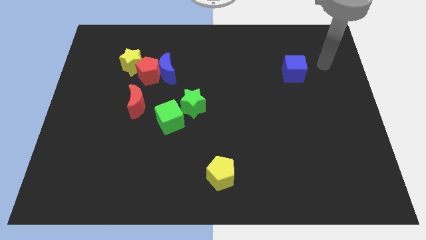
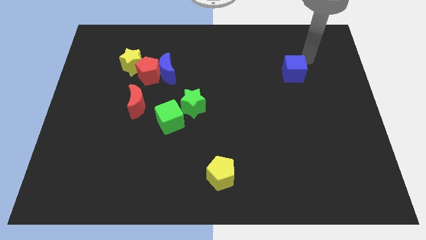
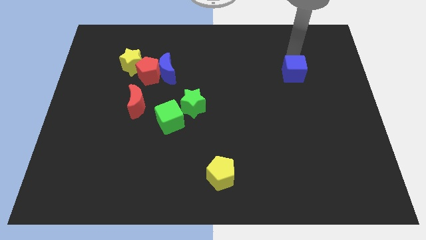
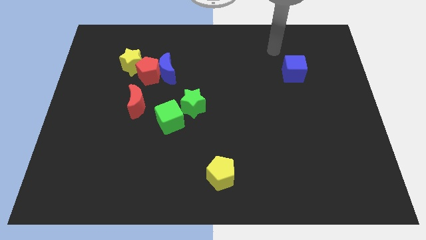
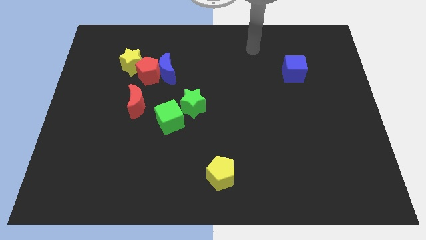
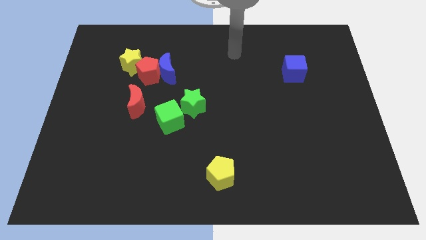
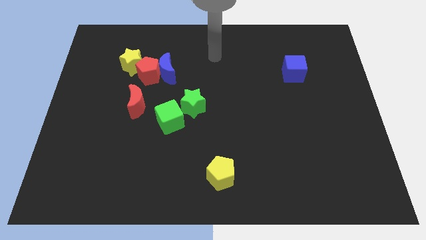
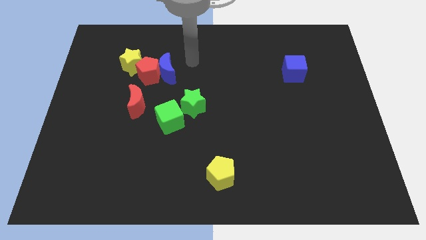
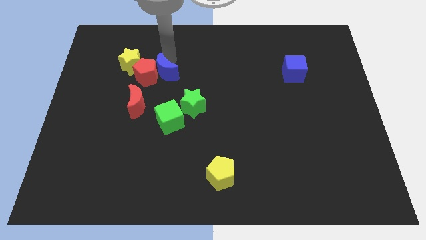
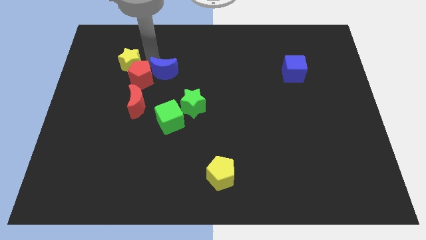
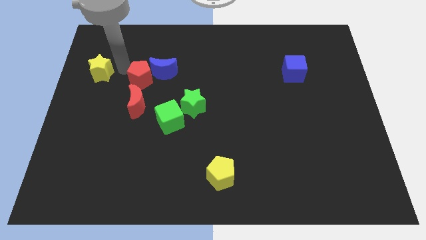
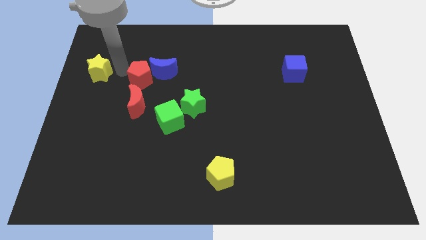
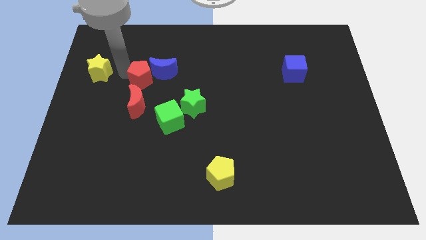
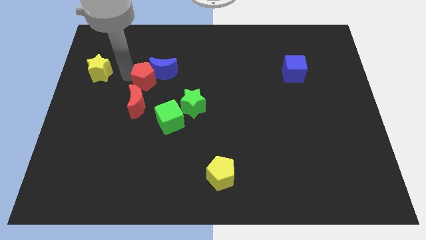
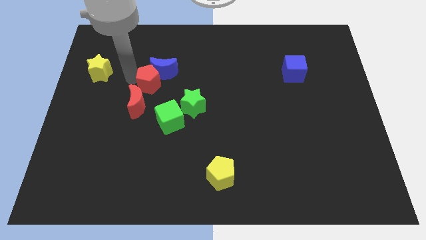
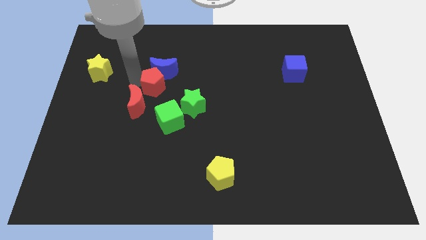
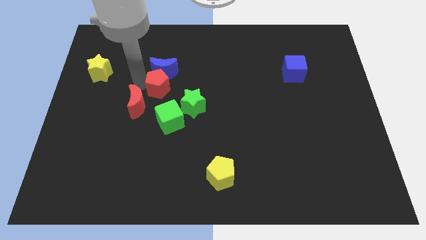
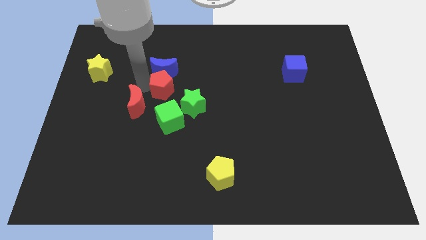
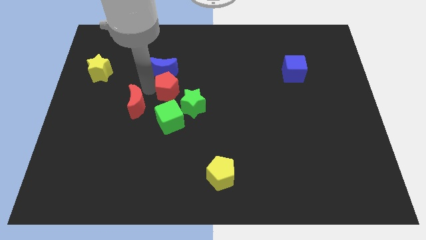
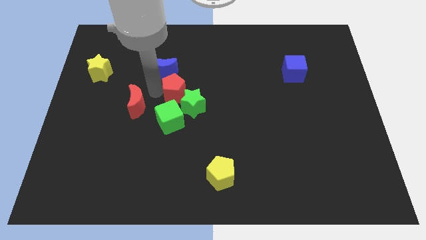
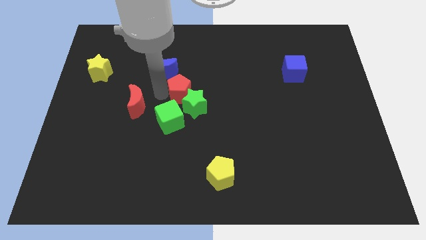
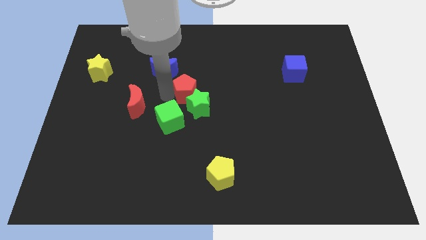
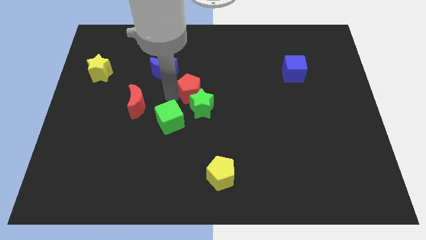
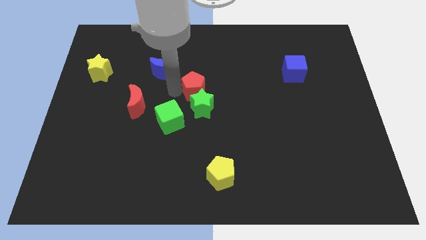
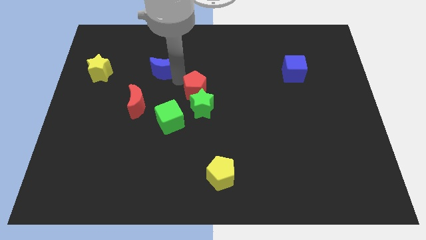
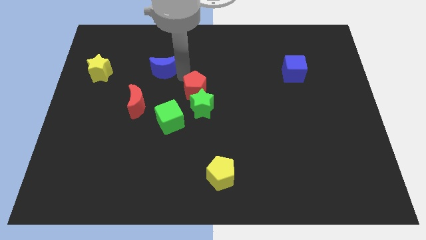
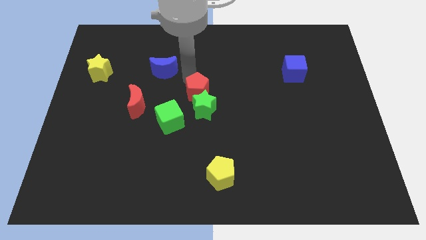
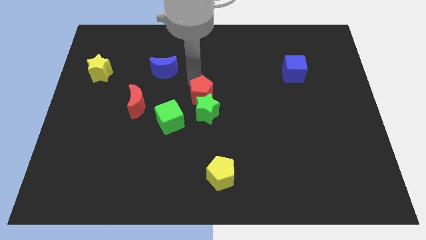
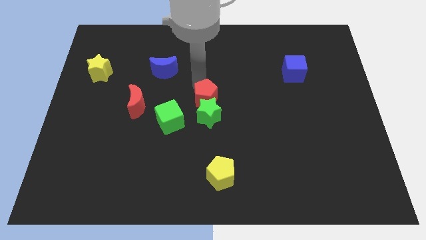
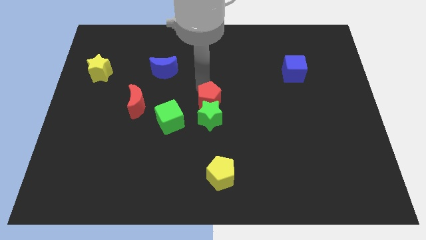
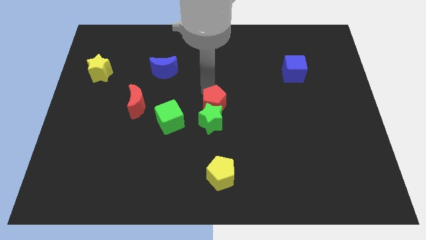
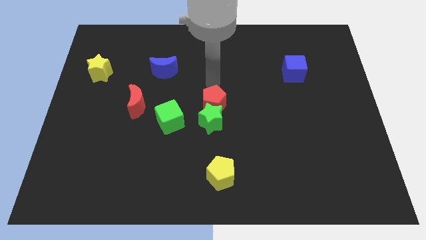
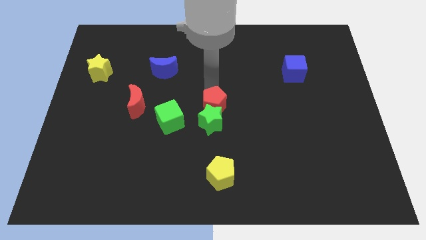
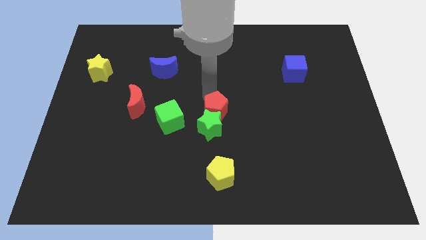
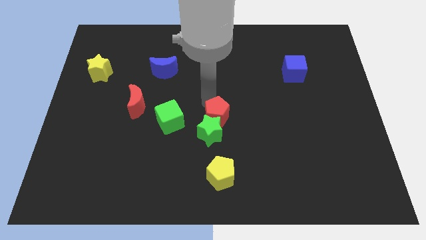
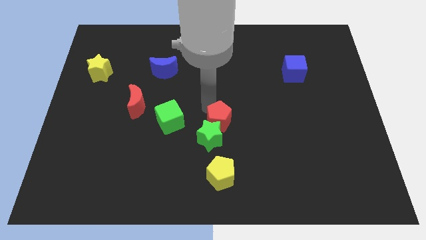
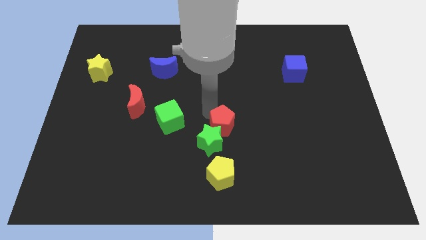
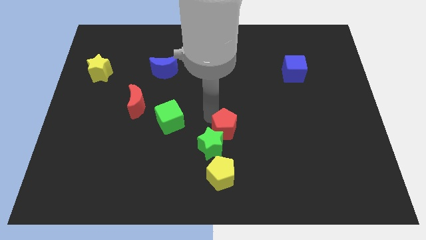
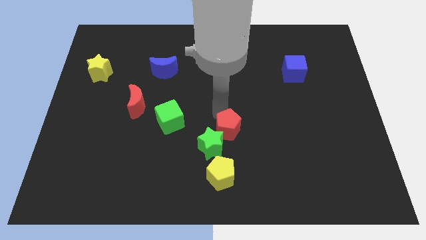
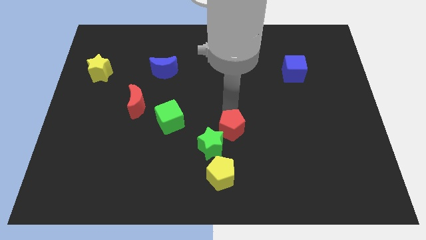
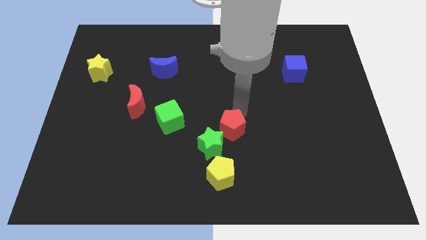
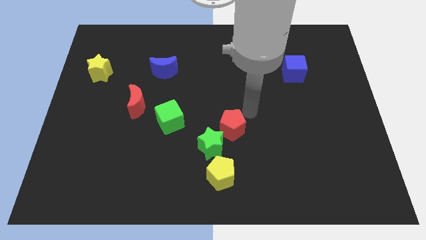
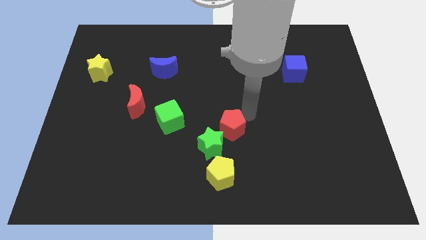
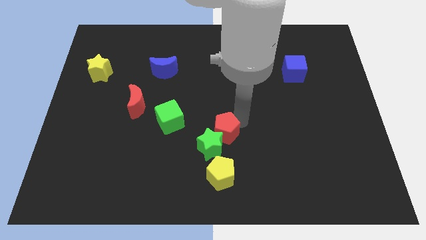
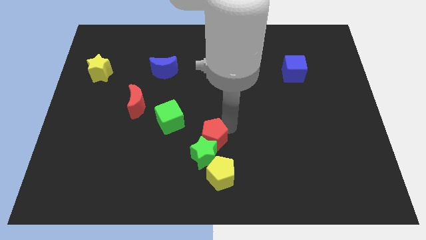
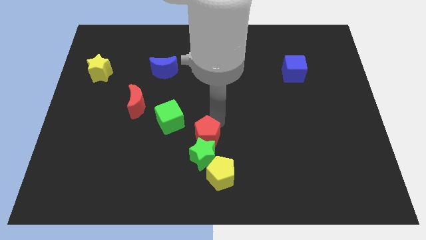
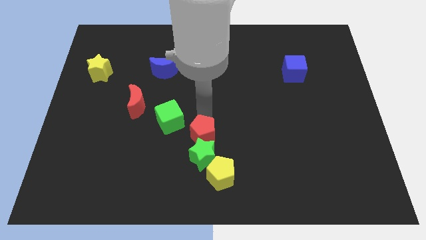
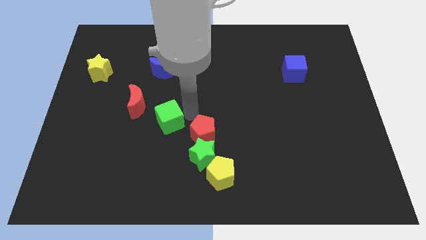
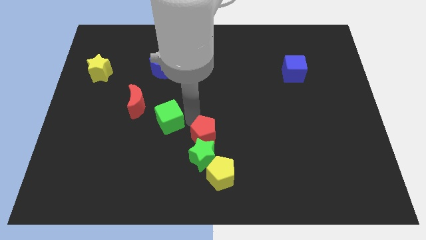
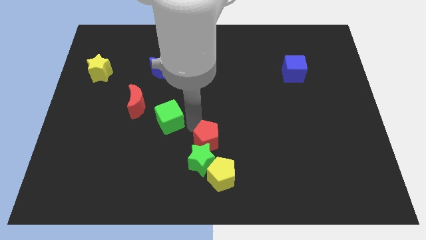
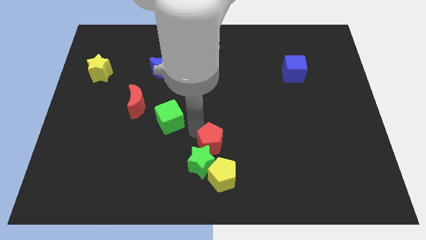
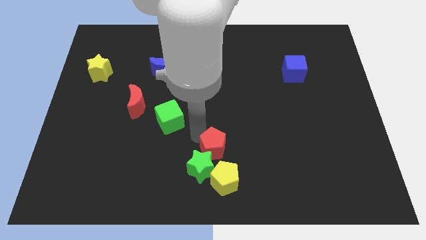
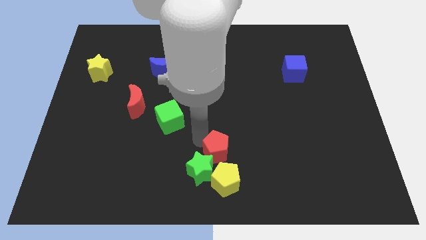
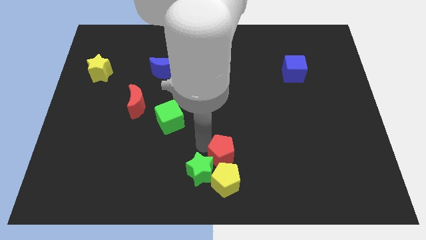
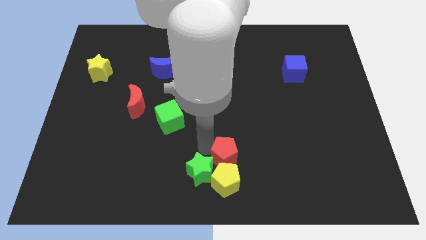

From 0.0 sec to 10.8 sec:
push the red pentagon close to the yellow pentagon
